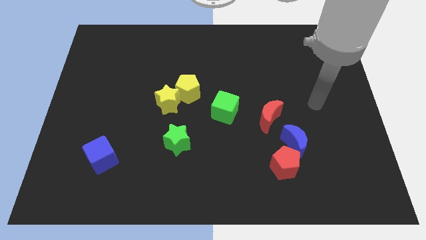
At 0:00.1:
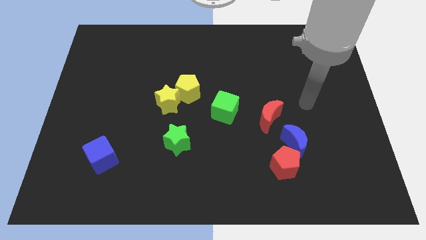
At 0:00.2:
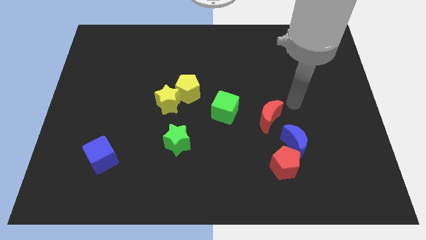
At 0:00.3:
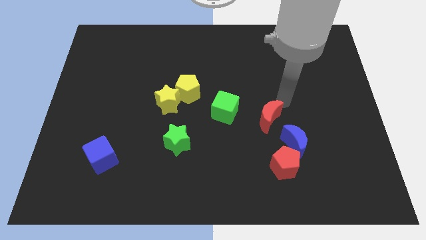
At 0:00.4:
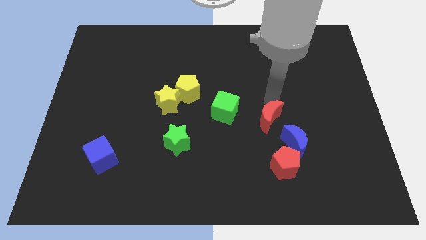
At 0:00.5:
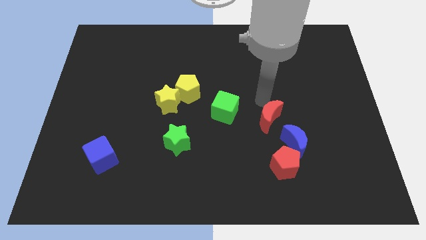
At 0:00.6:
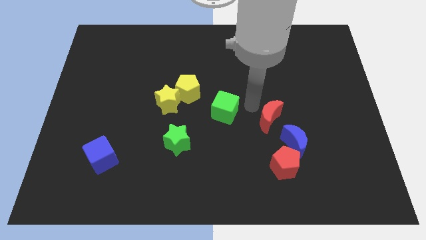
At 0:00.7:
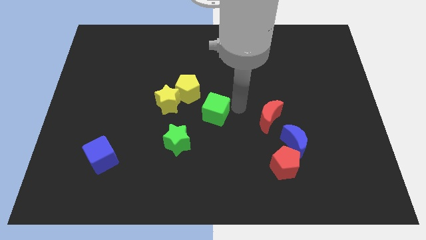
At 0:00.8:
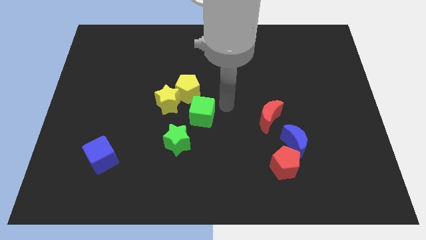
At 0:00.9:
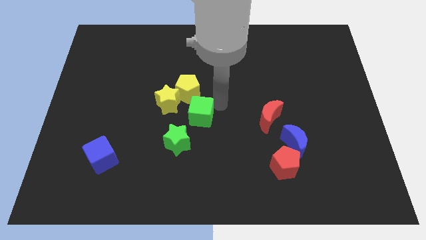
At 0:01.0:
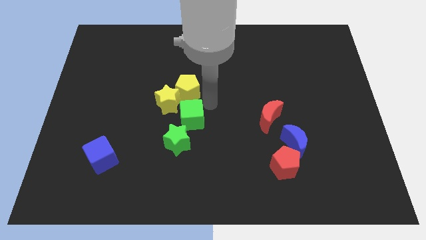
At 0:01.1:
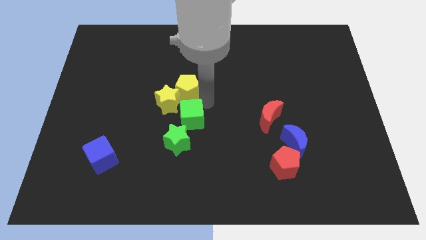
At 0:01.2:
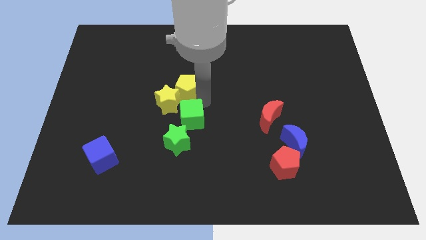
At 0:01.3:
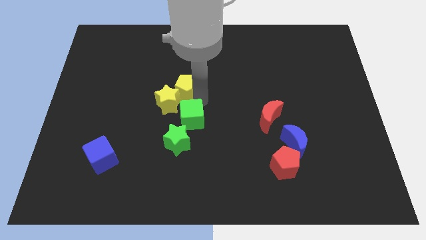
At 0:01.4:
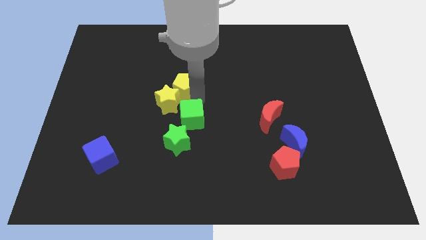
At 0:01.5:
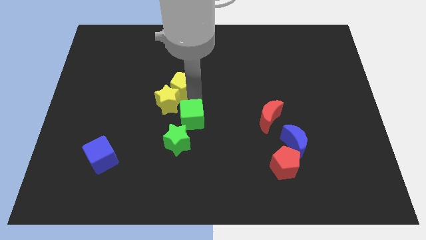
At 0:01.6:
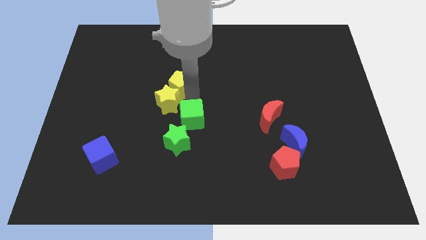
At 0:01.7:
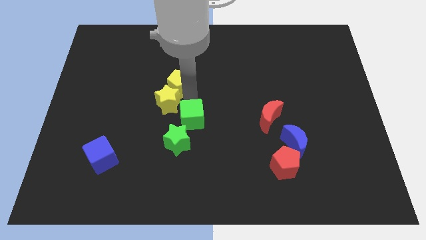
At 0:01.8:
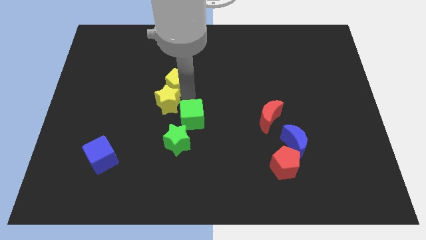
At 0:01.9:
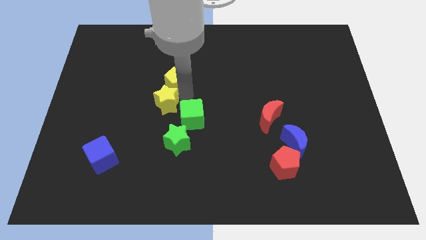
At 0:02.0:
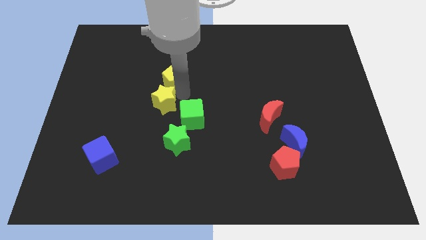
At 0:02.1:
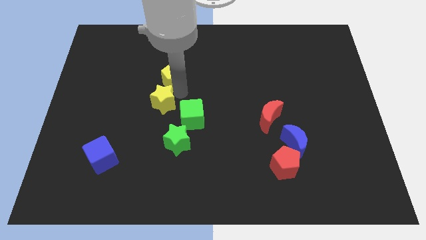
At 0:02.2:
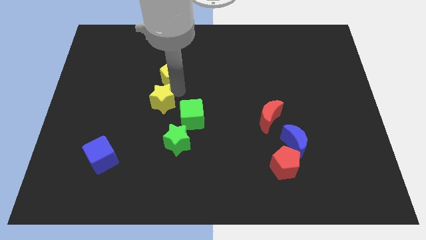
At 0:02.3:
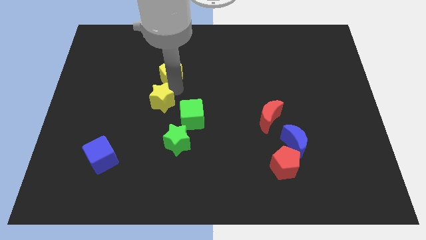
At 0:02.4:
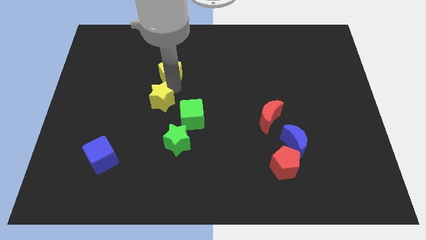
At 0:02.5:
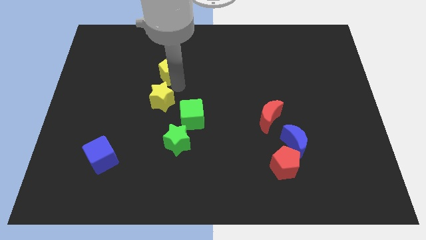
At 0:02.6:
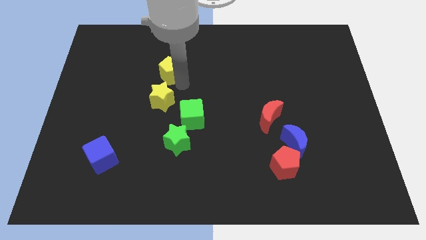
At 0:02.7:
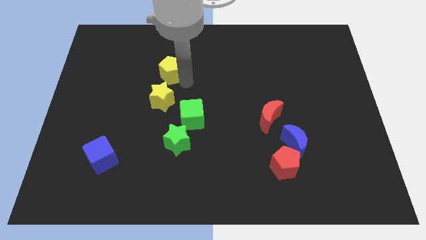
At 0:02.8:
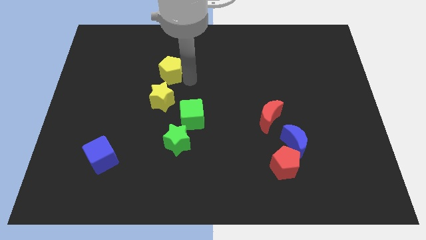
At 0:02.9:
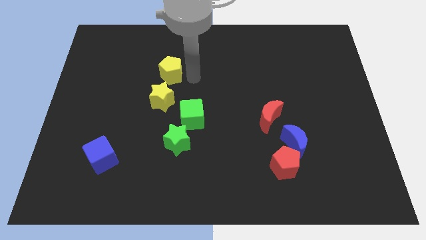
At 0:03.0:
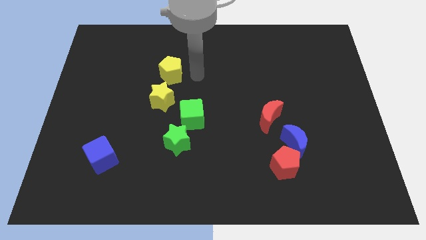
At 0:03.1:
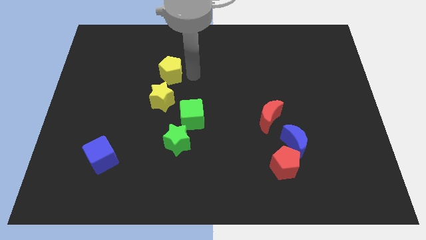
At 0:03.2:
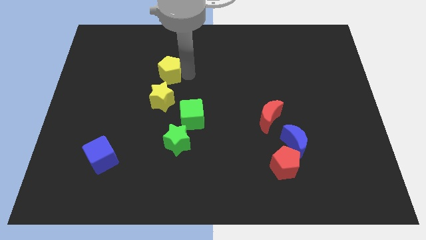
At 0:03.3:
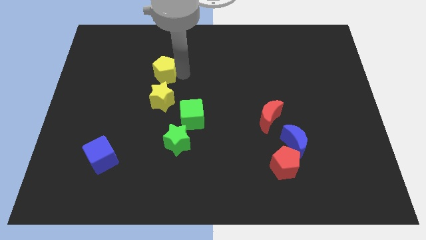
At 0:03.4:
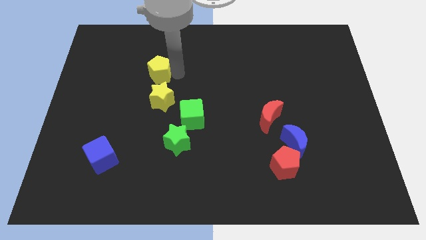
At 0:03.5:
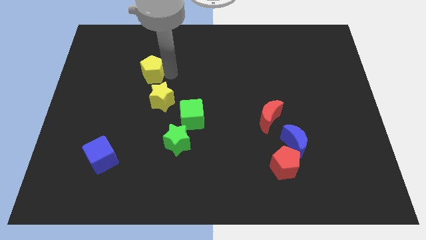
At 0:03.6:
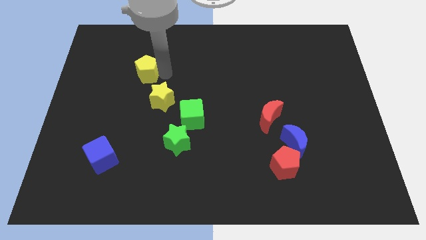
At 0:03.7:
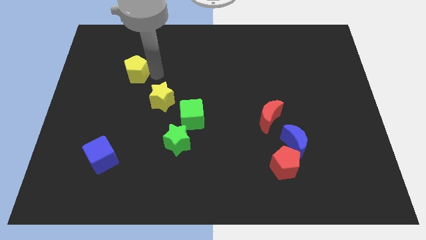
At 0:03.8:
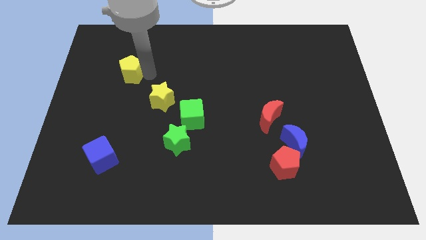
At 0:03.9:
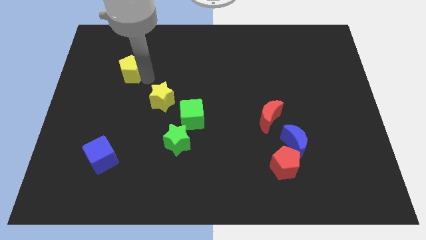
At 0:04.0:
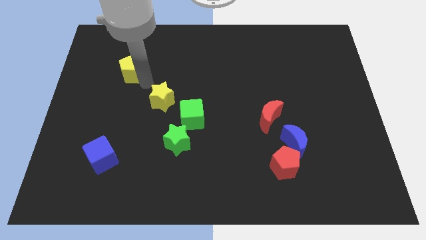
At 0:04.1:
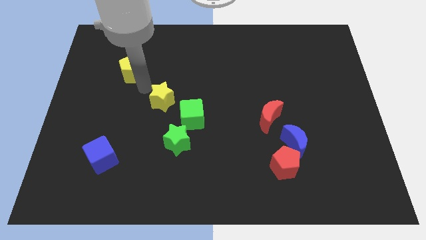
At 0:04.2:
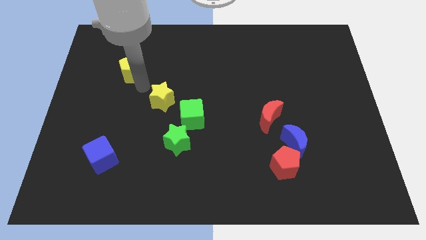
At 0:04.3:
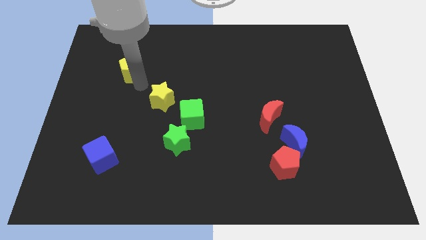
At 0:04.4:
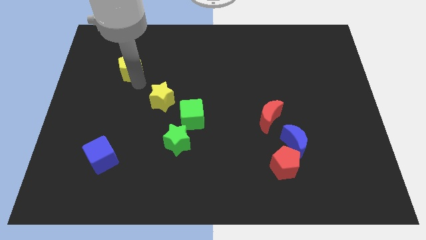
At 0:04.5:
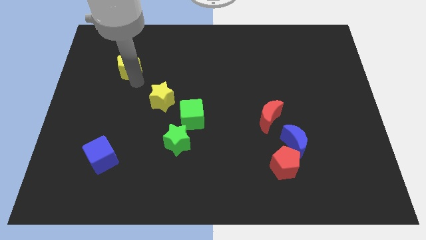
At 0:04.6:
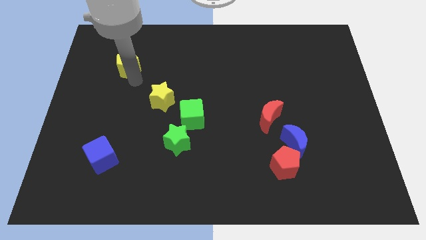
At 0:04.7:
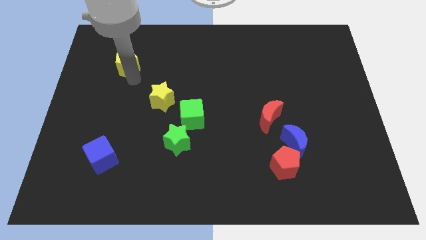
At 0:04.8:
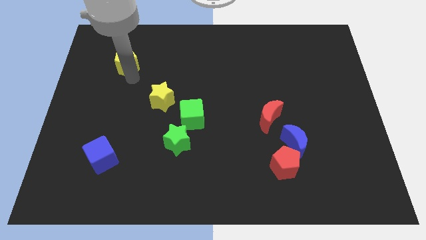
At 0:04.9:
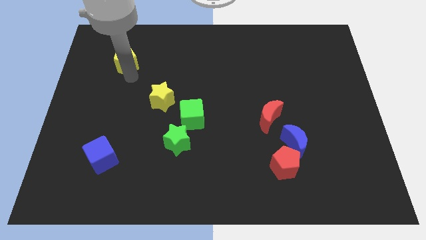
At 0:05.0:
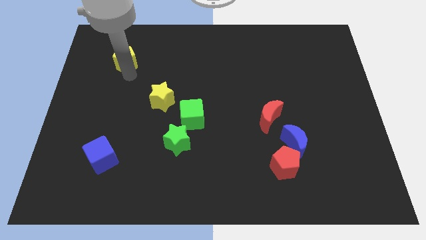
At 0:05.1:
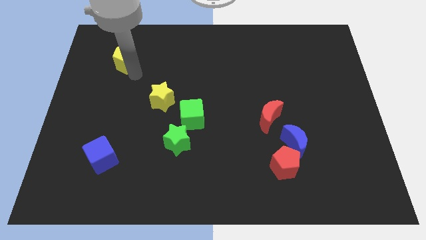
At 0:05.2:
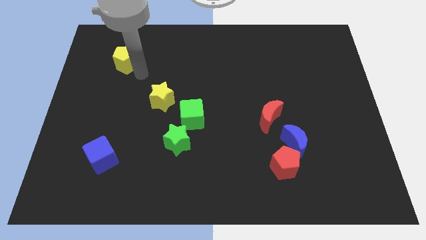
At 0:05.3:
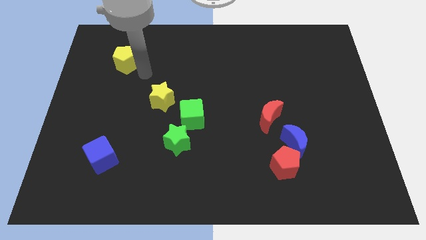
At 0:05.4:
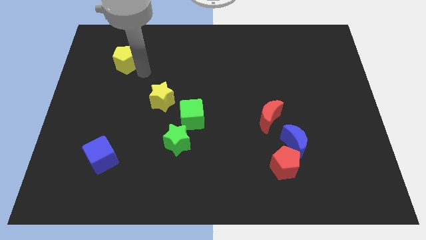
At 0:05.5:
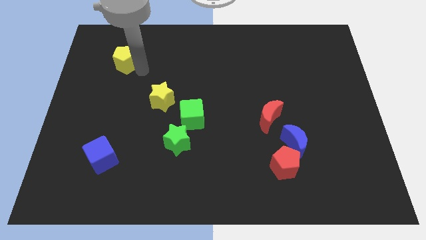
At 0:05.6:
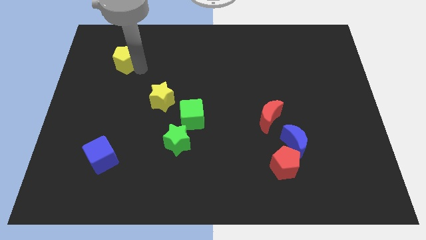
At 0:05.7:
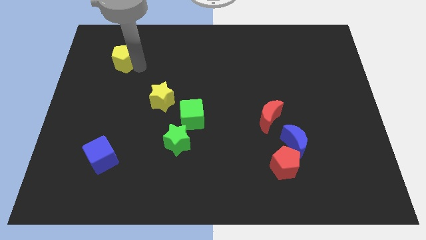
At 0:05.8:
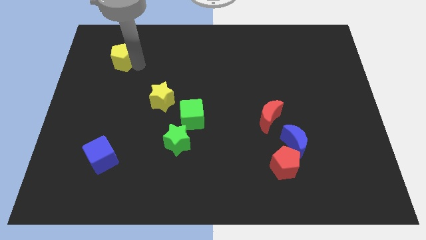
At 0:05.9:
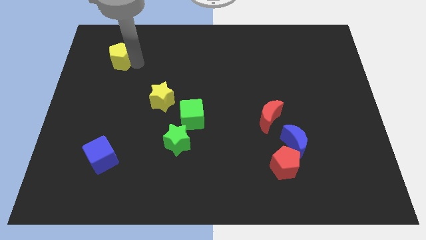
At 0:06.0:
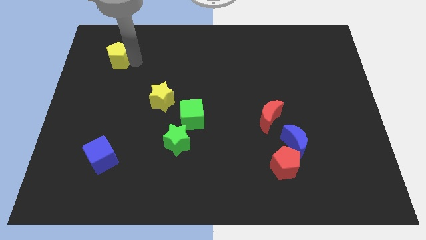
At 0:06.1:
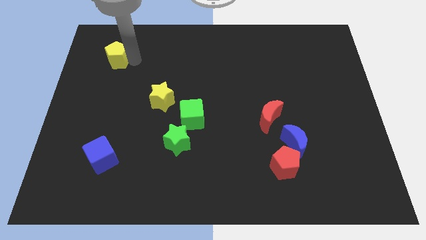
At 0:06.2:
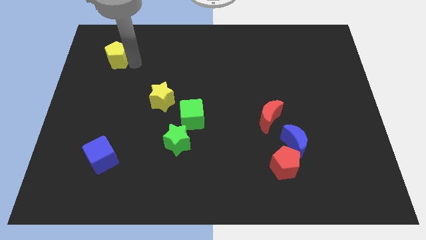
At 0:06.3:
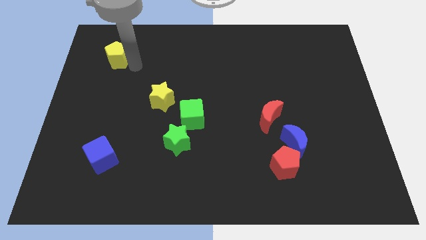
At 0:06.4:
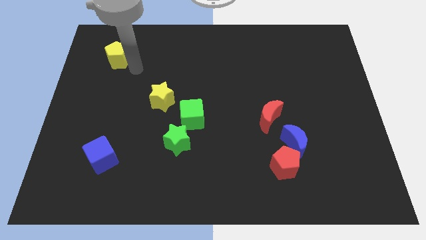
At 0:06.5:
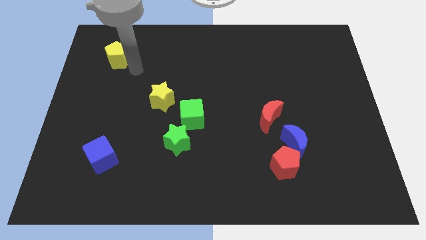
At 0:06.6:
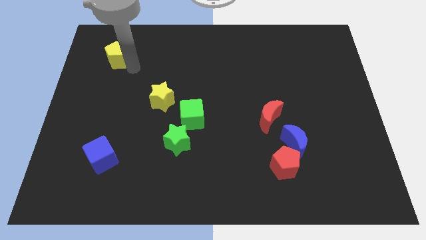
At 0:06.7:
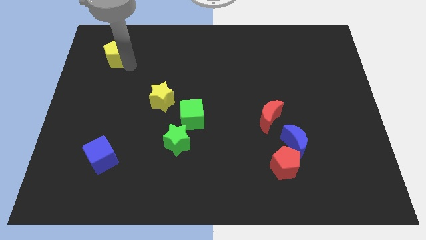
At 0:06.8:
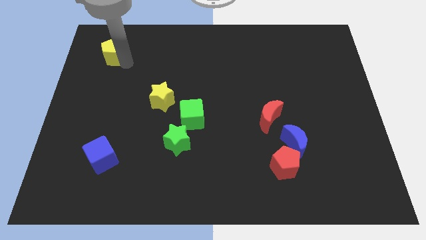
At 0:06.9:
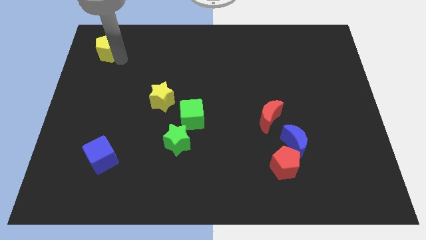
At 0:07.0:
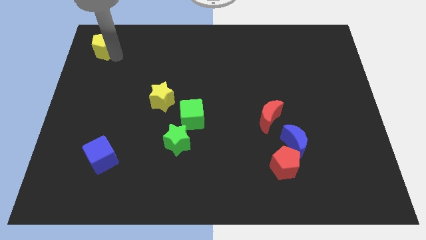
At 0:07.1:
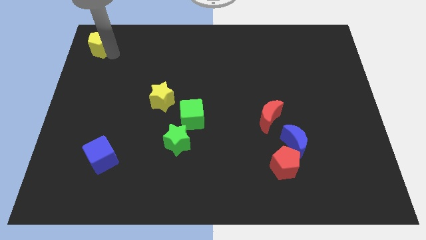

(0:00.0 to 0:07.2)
push the yellow pentagon to the upper left corner
